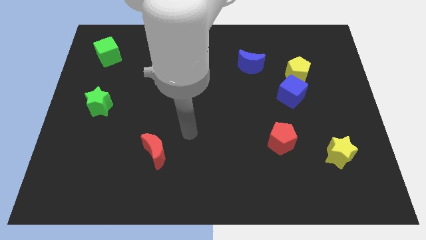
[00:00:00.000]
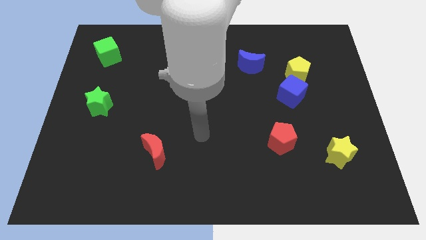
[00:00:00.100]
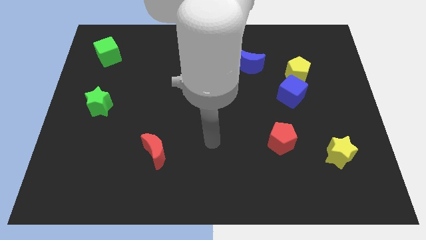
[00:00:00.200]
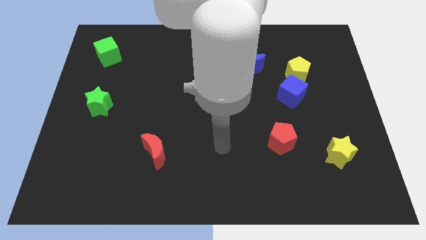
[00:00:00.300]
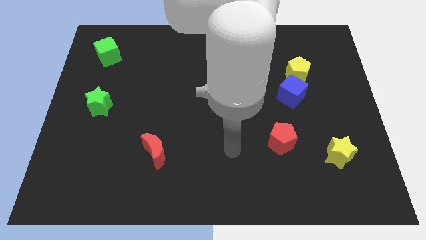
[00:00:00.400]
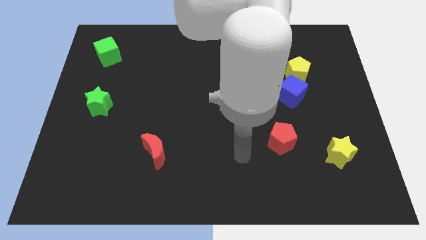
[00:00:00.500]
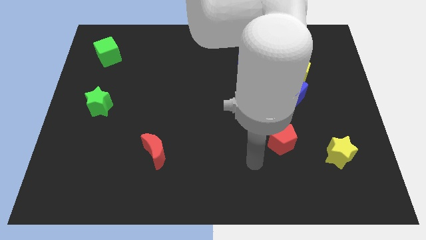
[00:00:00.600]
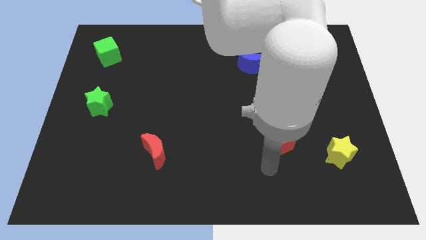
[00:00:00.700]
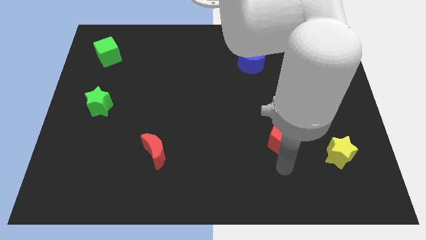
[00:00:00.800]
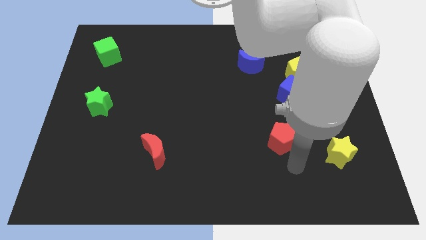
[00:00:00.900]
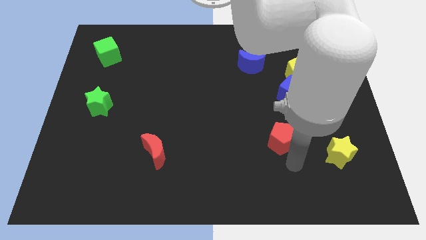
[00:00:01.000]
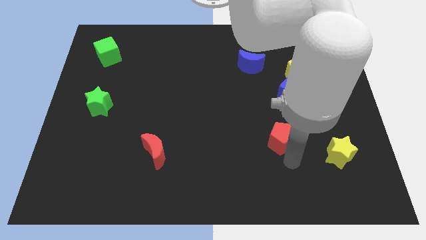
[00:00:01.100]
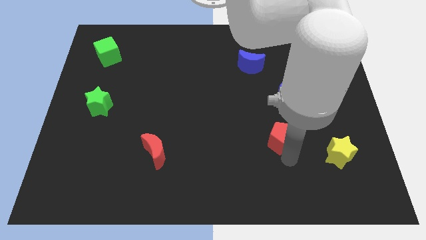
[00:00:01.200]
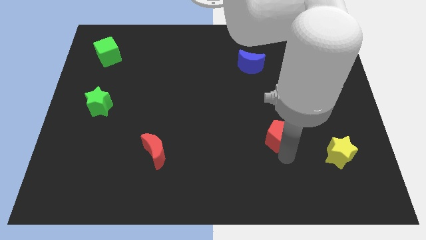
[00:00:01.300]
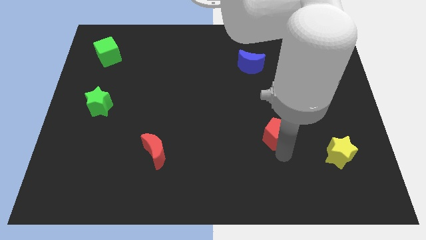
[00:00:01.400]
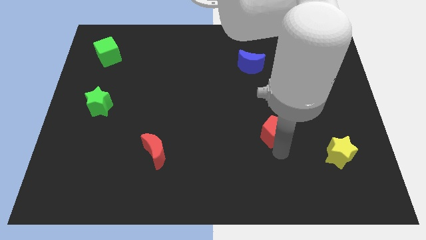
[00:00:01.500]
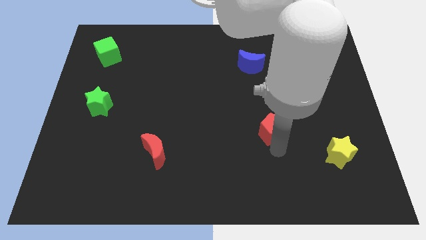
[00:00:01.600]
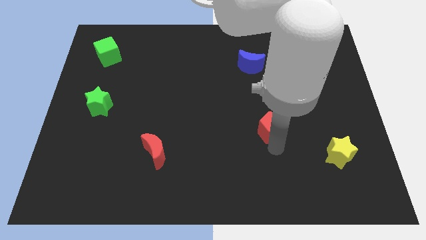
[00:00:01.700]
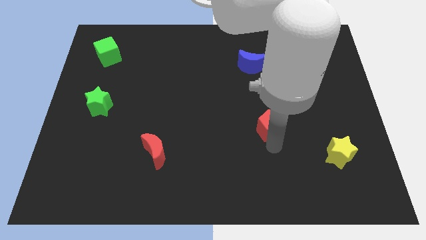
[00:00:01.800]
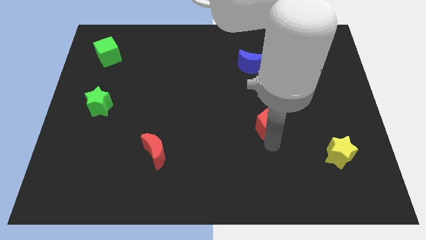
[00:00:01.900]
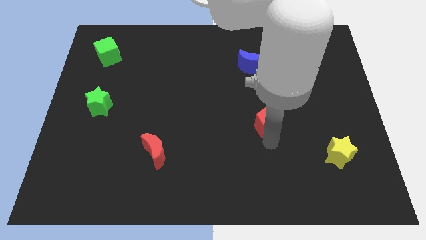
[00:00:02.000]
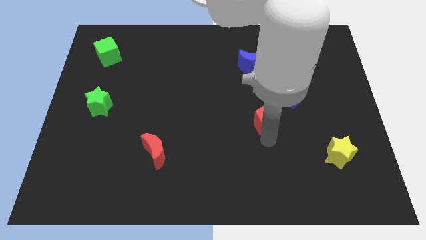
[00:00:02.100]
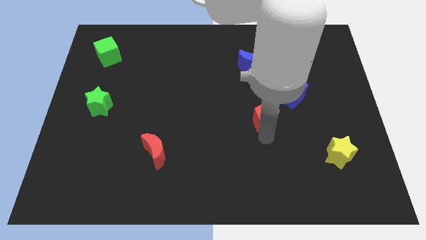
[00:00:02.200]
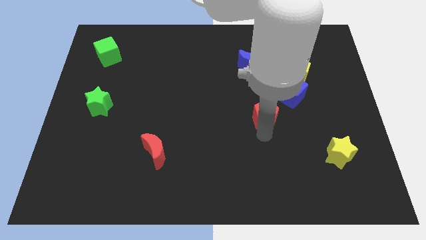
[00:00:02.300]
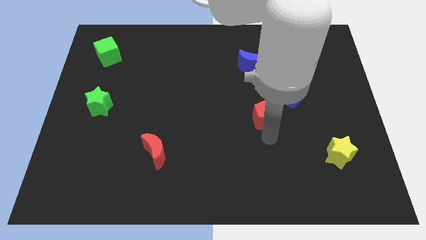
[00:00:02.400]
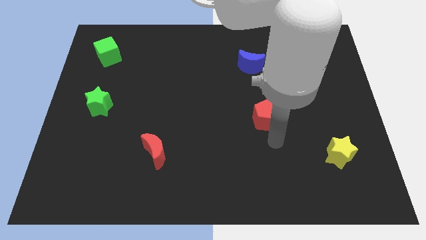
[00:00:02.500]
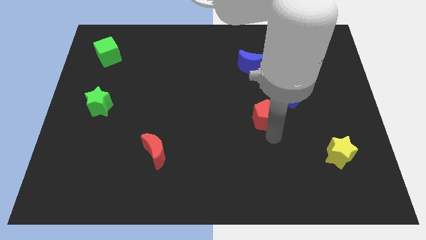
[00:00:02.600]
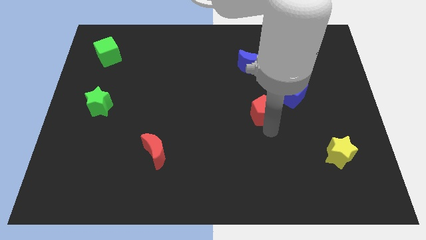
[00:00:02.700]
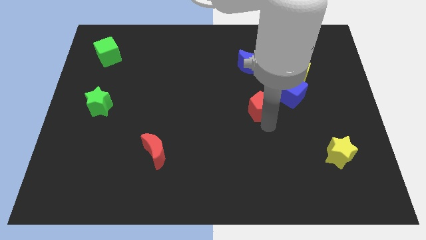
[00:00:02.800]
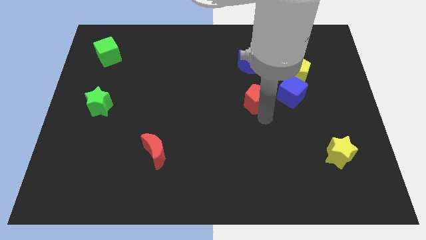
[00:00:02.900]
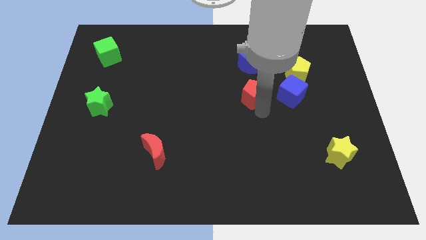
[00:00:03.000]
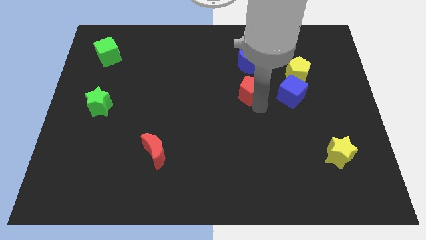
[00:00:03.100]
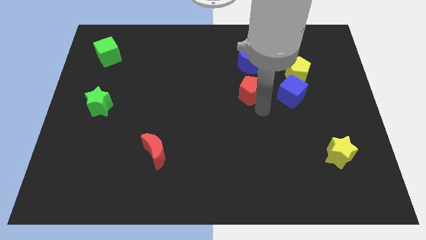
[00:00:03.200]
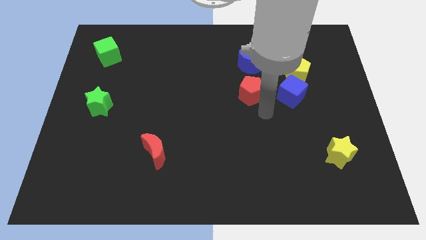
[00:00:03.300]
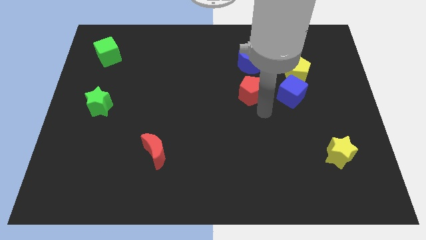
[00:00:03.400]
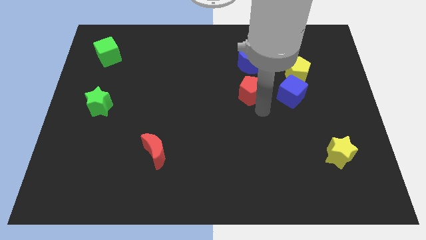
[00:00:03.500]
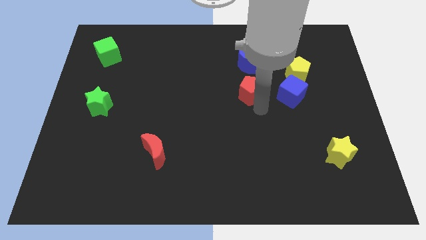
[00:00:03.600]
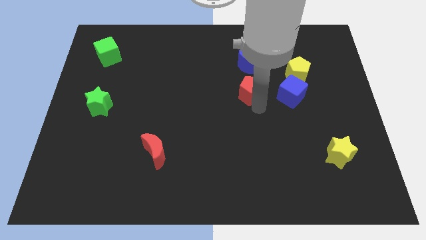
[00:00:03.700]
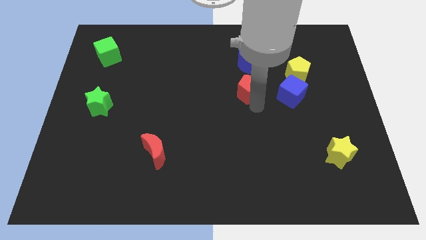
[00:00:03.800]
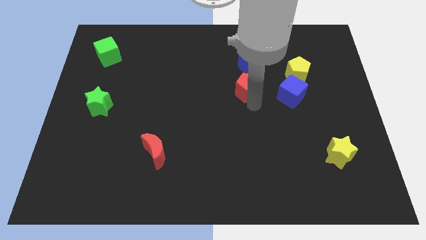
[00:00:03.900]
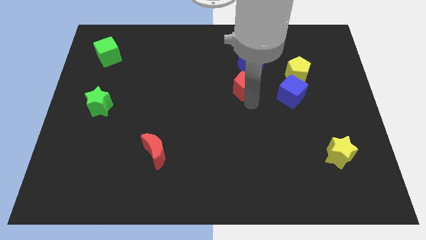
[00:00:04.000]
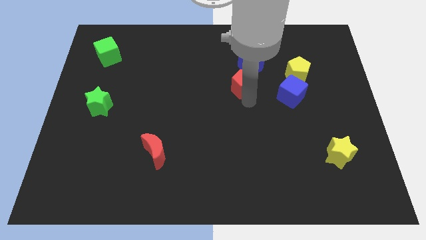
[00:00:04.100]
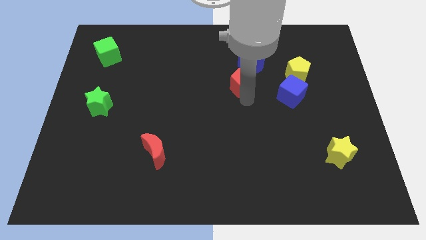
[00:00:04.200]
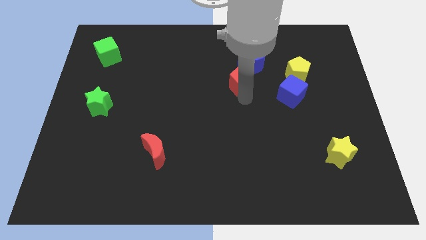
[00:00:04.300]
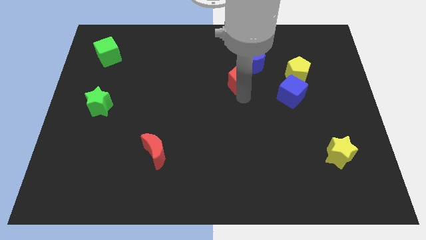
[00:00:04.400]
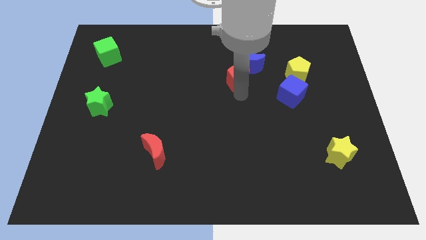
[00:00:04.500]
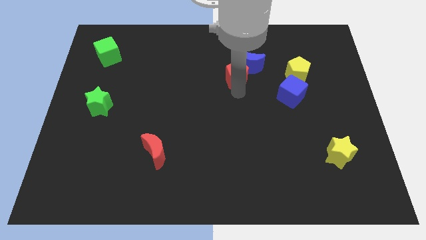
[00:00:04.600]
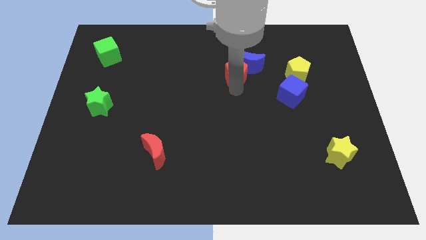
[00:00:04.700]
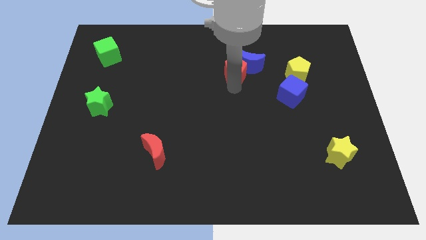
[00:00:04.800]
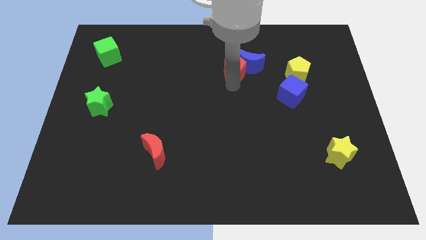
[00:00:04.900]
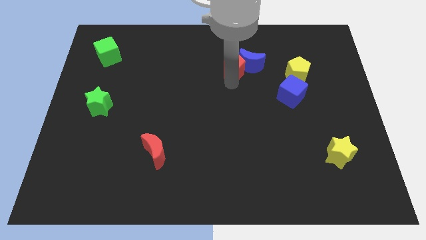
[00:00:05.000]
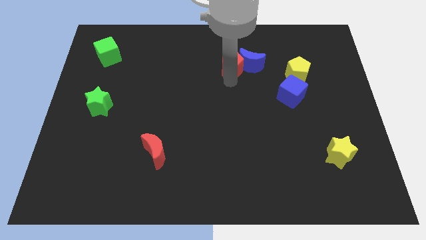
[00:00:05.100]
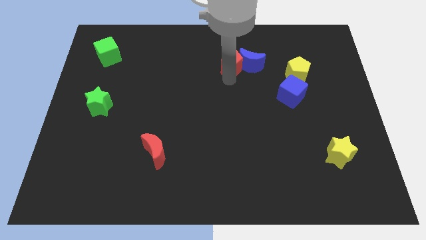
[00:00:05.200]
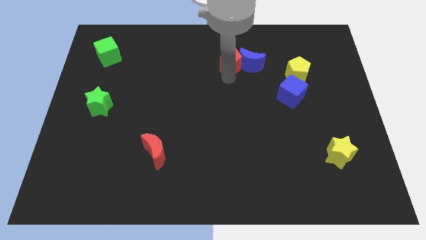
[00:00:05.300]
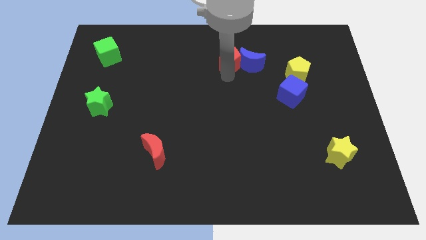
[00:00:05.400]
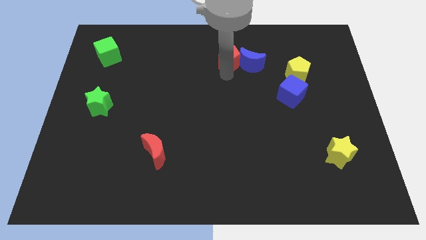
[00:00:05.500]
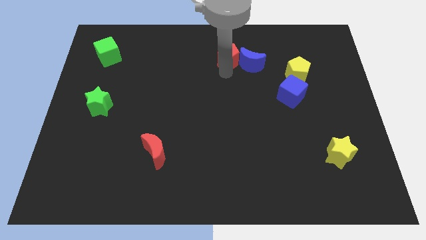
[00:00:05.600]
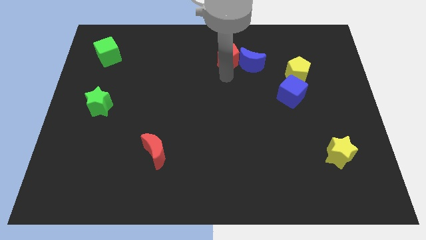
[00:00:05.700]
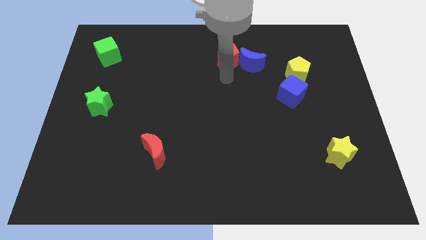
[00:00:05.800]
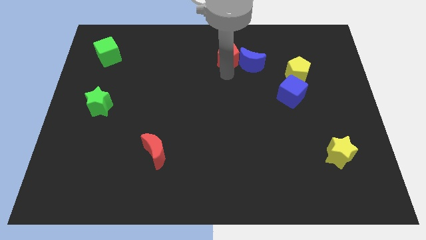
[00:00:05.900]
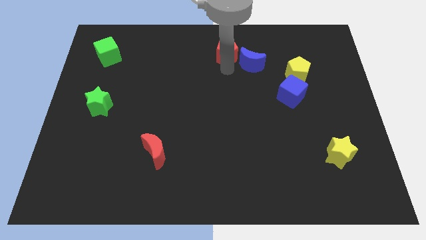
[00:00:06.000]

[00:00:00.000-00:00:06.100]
push the red pentagon to the towards your base
